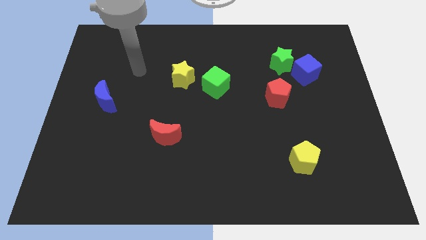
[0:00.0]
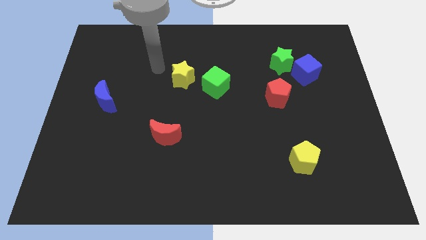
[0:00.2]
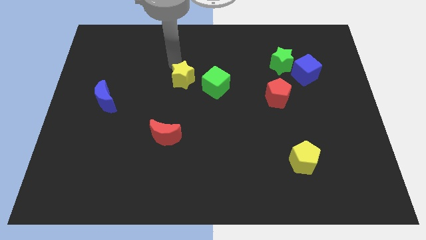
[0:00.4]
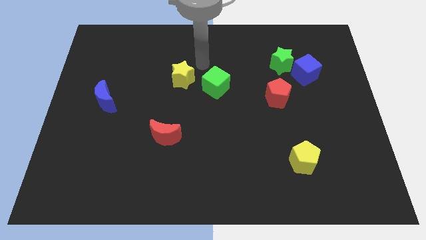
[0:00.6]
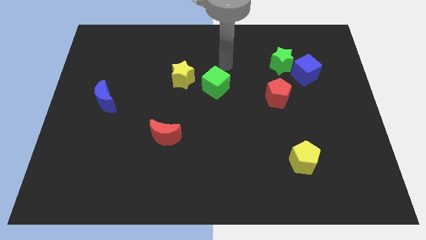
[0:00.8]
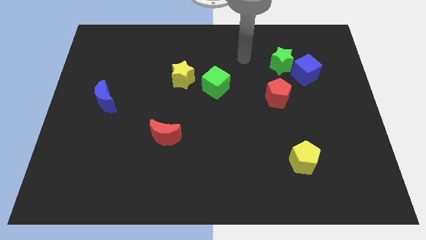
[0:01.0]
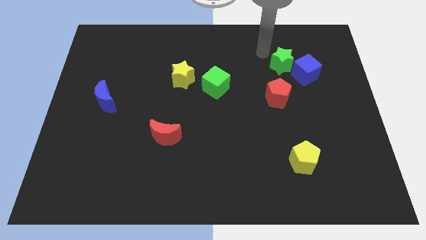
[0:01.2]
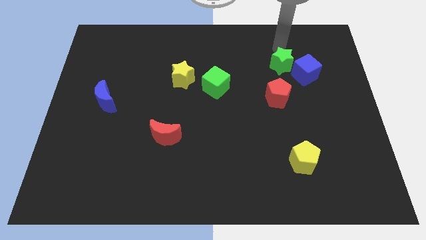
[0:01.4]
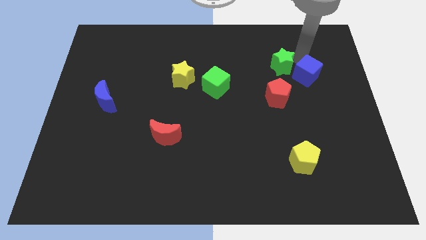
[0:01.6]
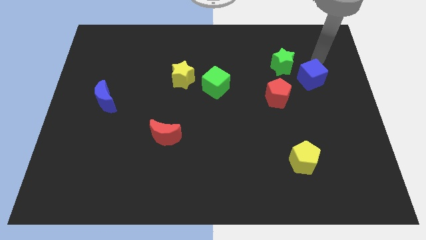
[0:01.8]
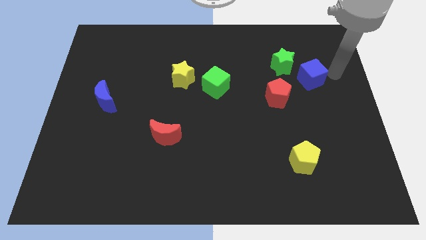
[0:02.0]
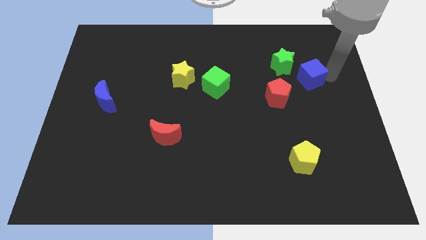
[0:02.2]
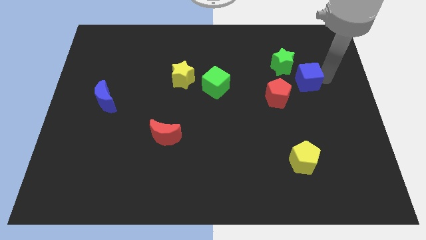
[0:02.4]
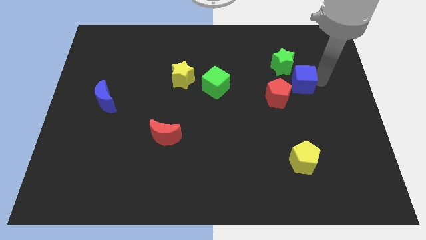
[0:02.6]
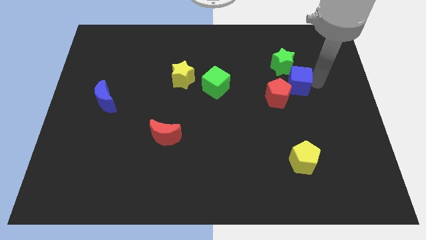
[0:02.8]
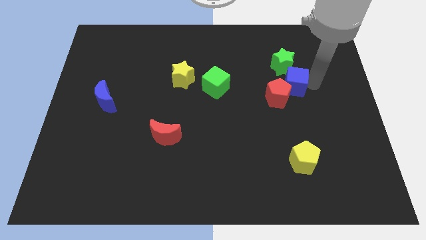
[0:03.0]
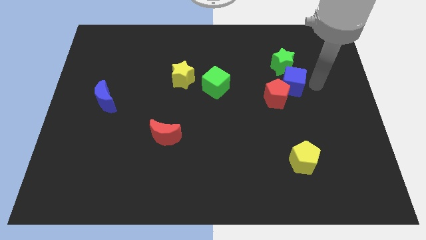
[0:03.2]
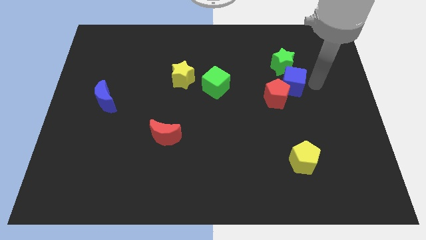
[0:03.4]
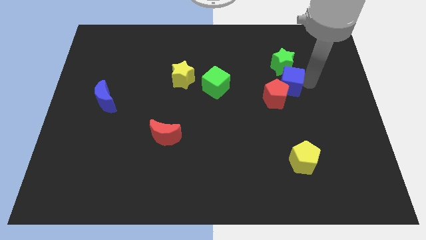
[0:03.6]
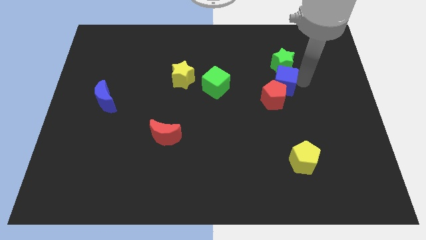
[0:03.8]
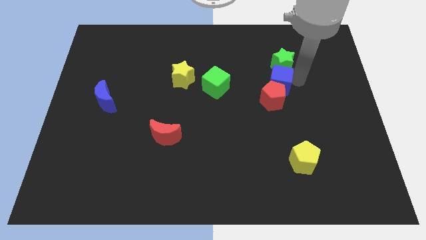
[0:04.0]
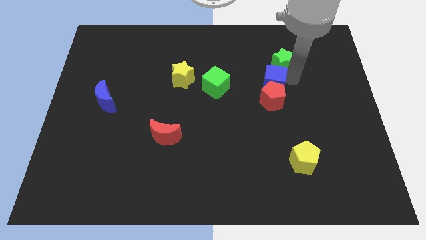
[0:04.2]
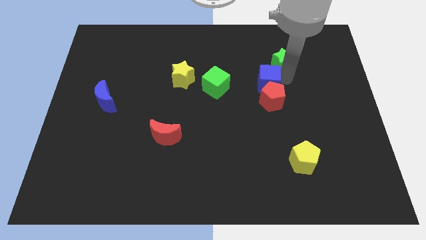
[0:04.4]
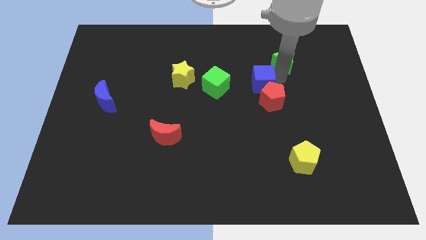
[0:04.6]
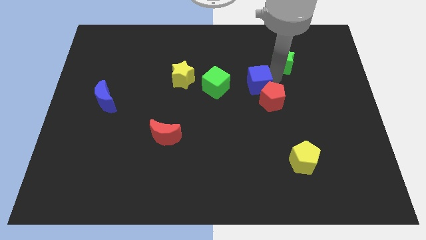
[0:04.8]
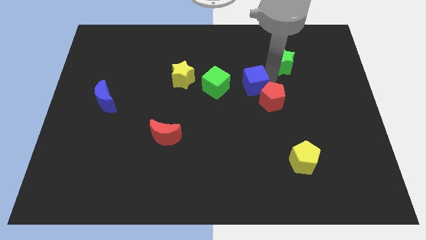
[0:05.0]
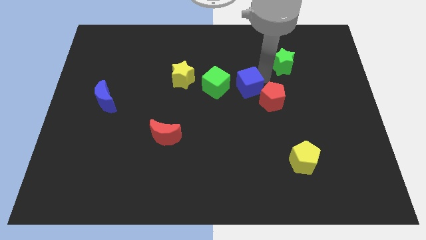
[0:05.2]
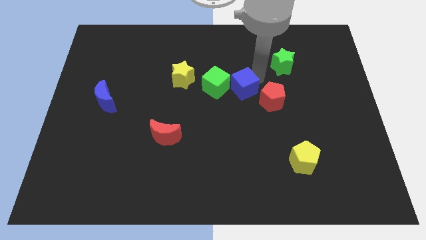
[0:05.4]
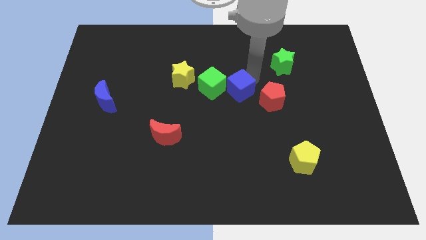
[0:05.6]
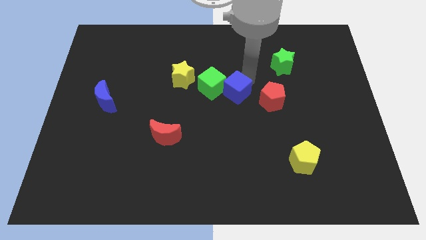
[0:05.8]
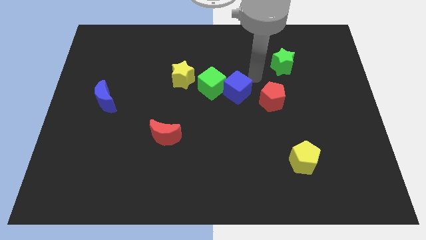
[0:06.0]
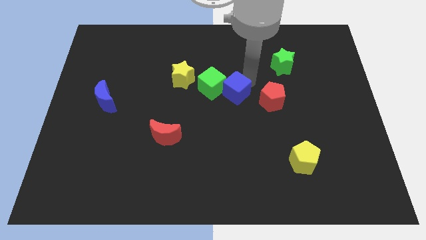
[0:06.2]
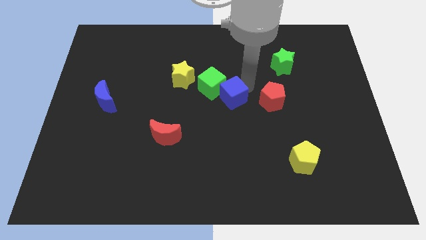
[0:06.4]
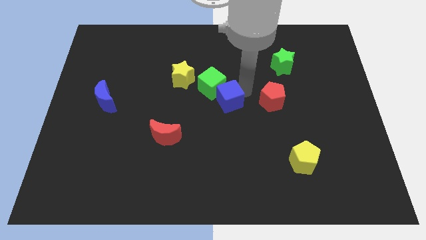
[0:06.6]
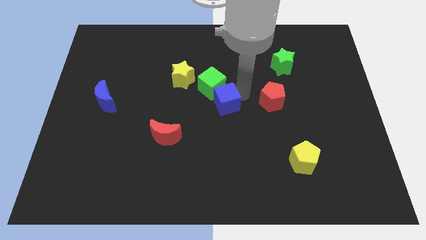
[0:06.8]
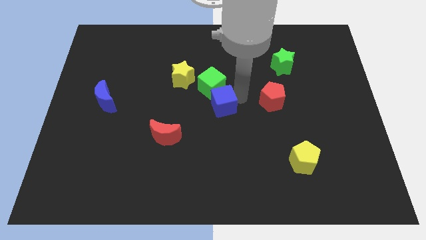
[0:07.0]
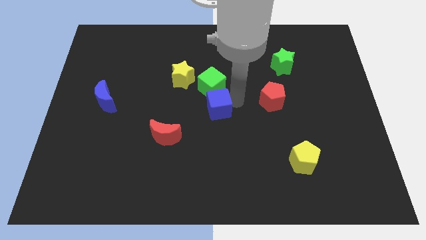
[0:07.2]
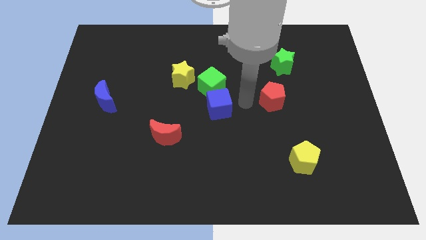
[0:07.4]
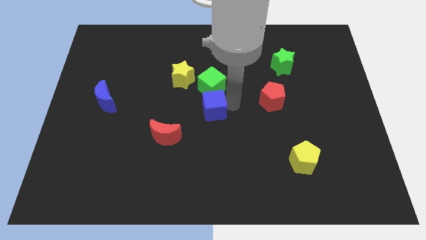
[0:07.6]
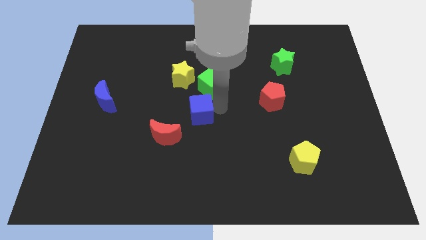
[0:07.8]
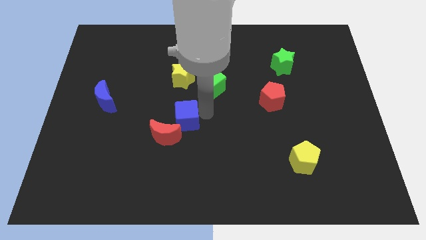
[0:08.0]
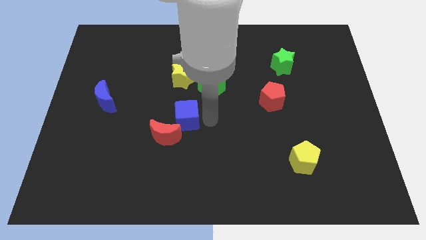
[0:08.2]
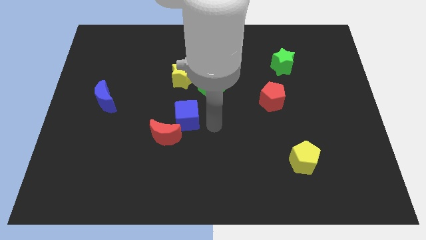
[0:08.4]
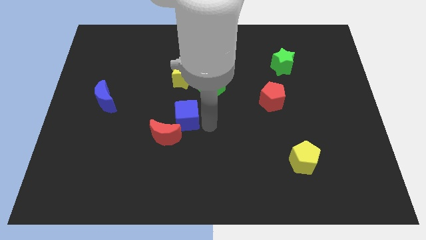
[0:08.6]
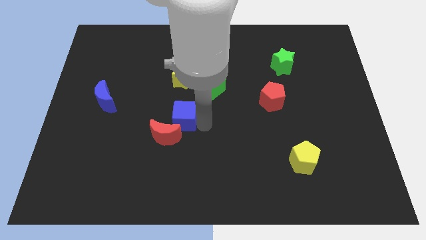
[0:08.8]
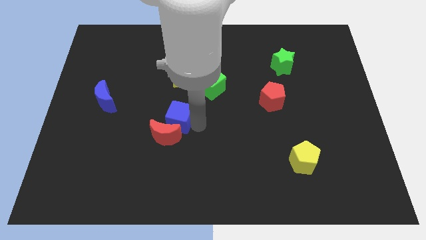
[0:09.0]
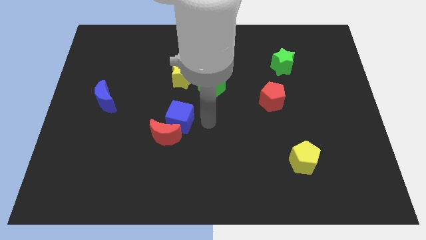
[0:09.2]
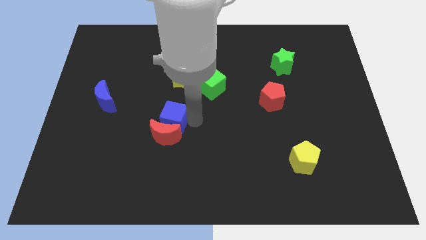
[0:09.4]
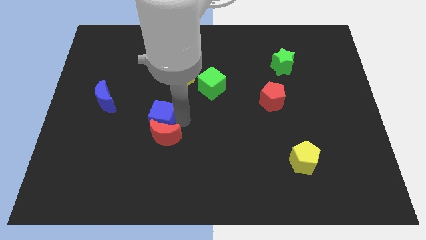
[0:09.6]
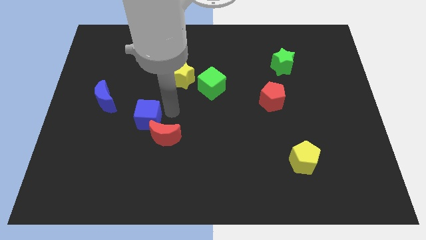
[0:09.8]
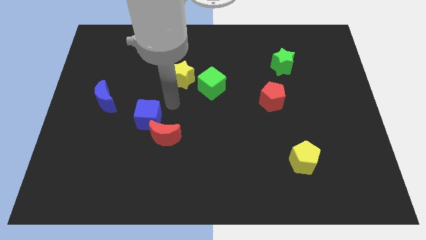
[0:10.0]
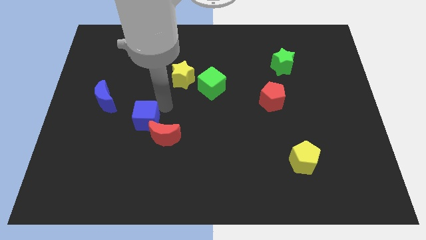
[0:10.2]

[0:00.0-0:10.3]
slide the blue cube to the left of the red moon

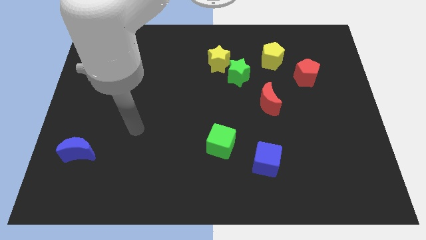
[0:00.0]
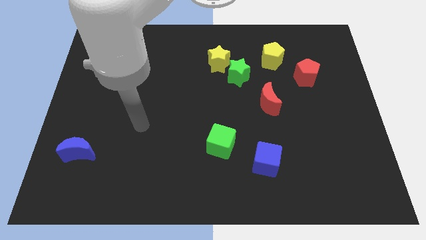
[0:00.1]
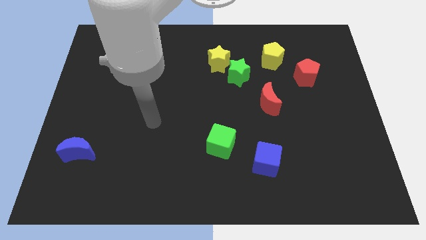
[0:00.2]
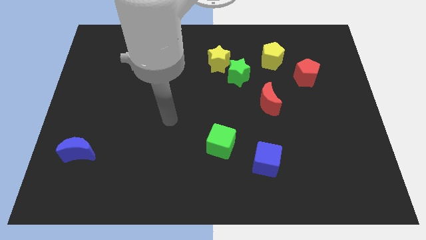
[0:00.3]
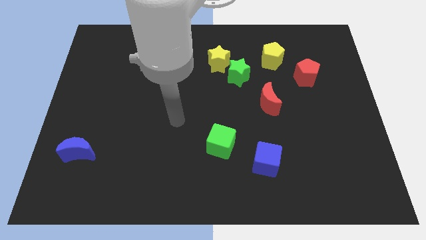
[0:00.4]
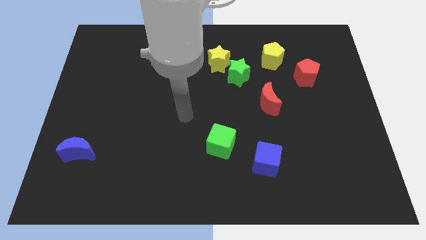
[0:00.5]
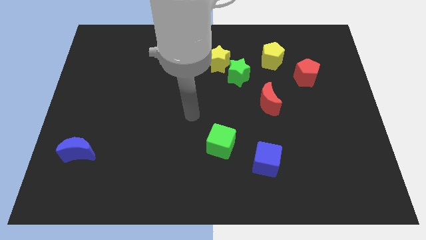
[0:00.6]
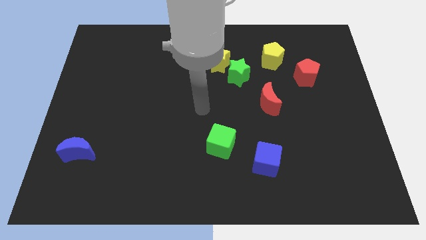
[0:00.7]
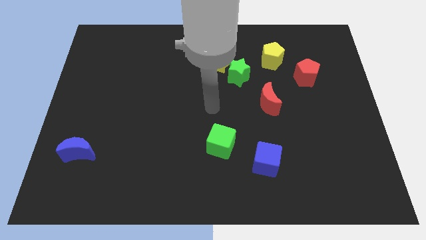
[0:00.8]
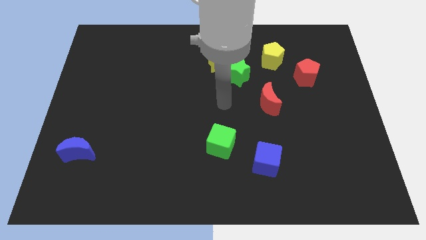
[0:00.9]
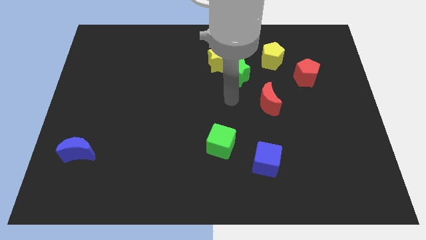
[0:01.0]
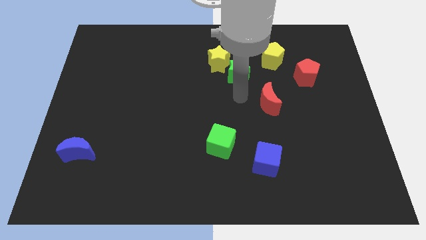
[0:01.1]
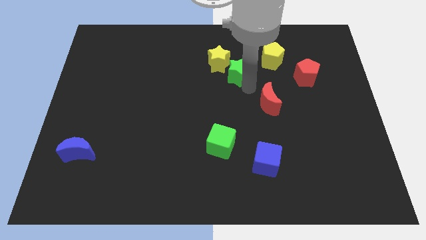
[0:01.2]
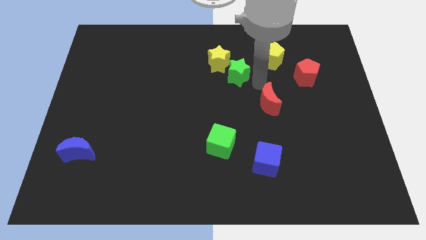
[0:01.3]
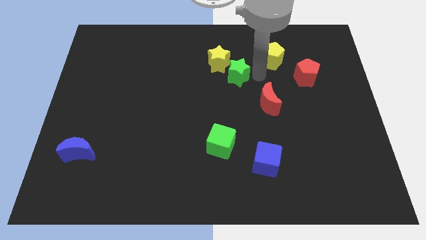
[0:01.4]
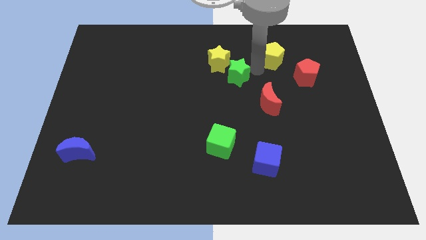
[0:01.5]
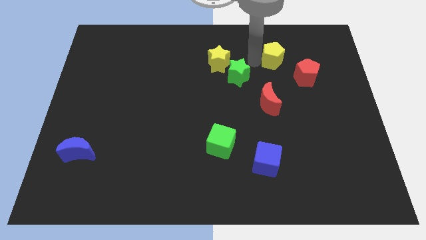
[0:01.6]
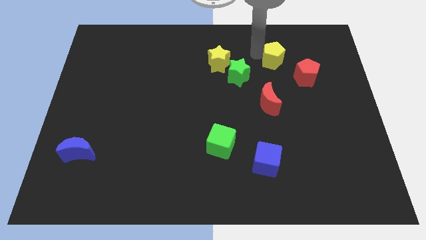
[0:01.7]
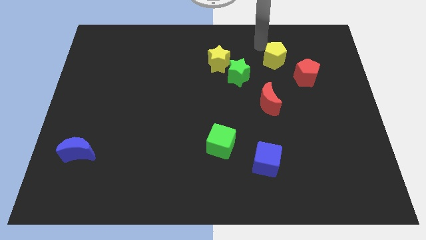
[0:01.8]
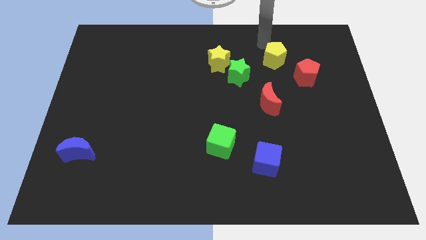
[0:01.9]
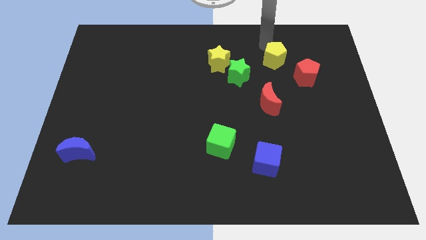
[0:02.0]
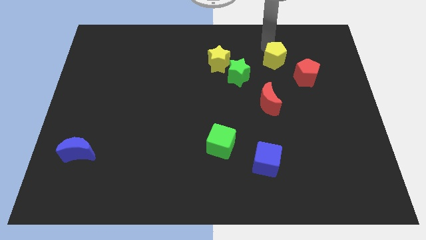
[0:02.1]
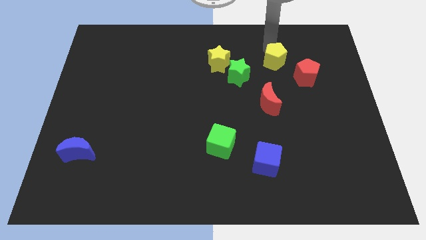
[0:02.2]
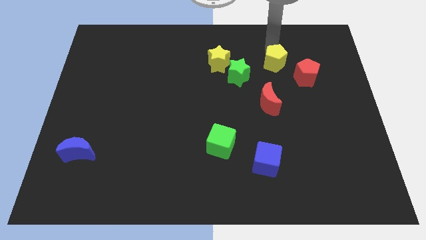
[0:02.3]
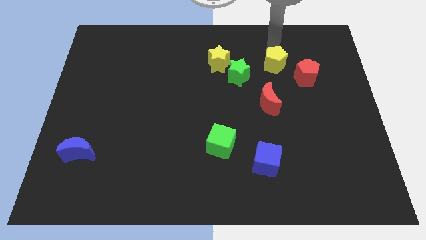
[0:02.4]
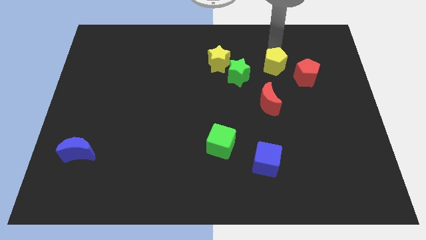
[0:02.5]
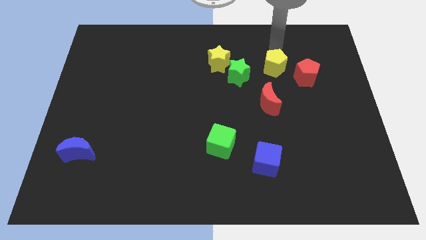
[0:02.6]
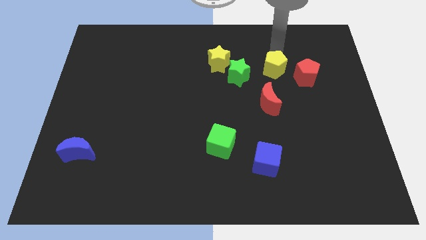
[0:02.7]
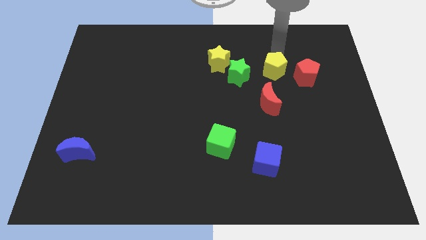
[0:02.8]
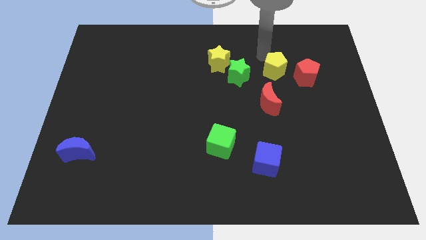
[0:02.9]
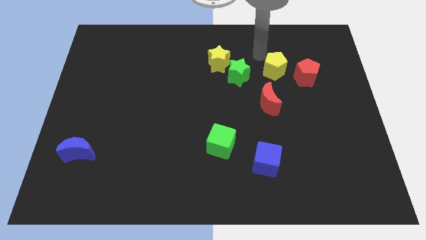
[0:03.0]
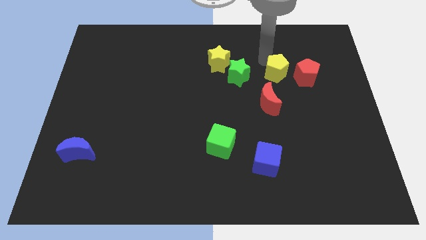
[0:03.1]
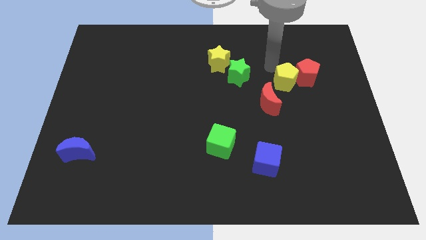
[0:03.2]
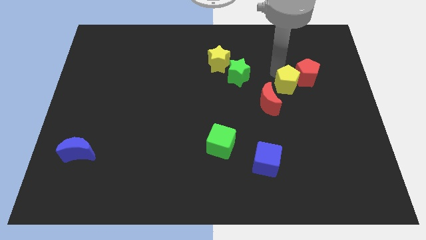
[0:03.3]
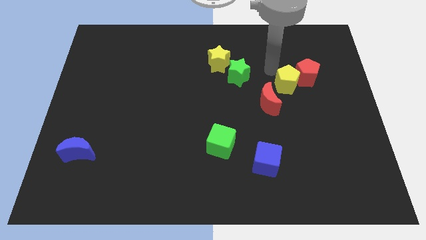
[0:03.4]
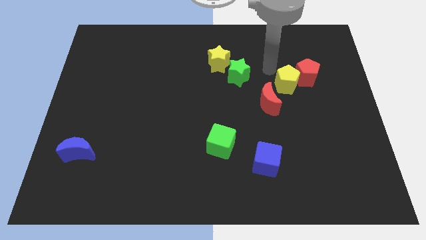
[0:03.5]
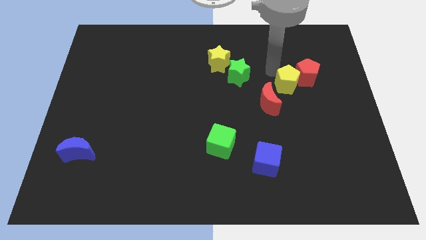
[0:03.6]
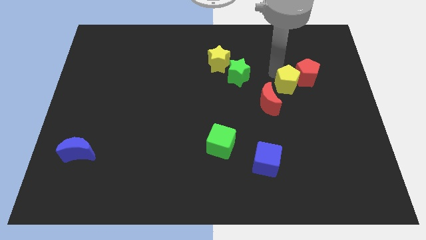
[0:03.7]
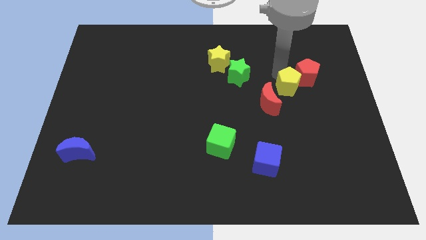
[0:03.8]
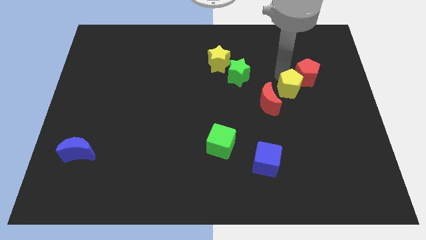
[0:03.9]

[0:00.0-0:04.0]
slide the yellow pentagon to the right of the red moon
